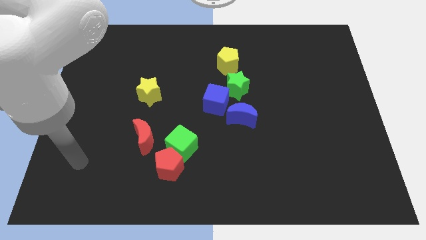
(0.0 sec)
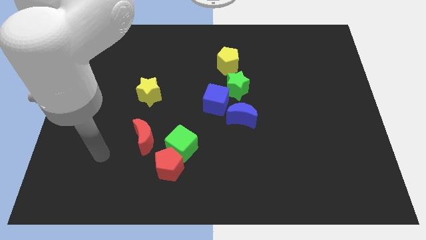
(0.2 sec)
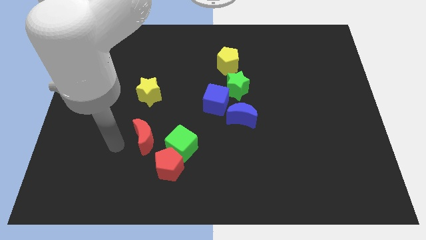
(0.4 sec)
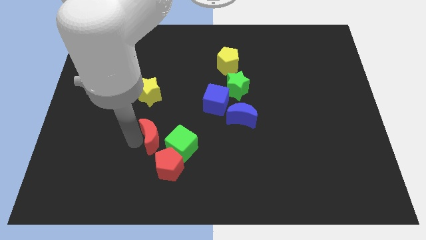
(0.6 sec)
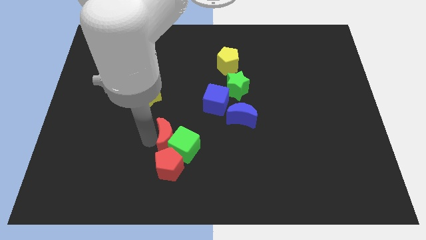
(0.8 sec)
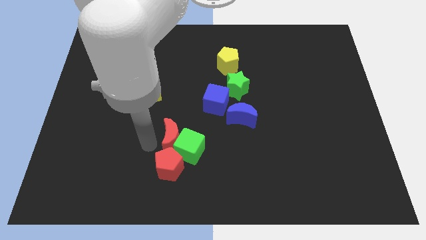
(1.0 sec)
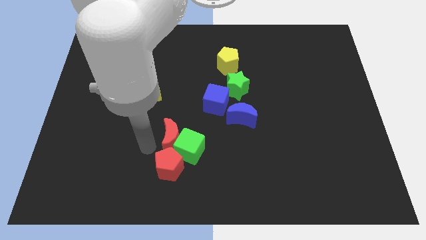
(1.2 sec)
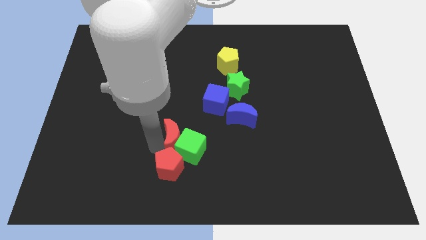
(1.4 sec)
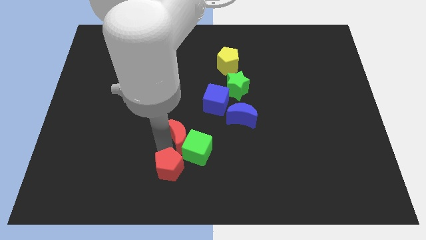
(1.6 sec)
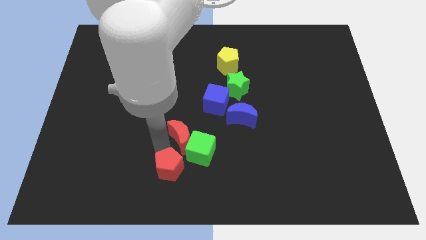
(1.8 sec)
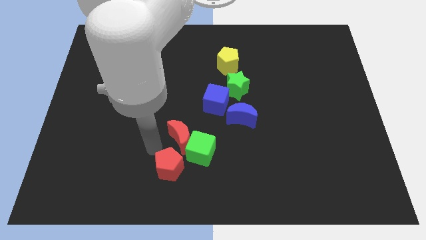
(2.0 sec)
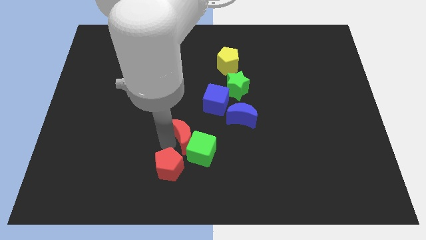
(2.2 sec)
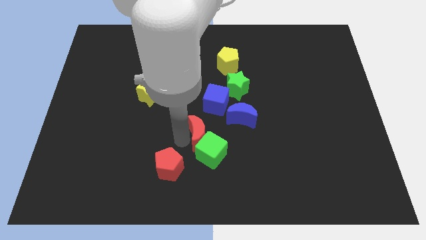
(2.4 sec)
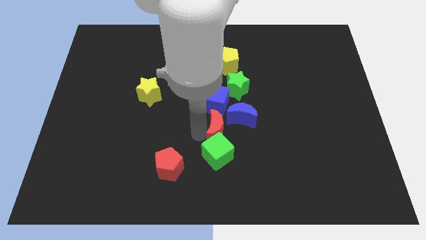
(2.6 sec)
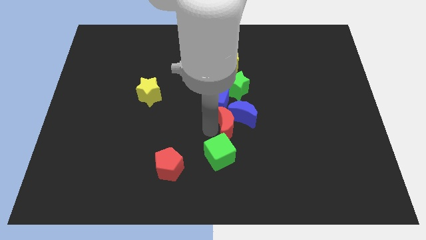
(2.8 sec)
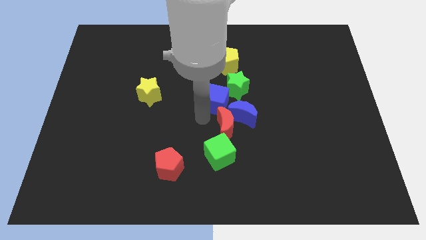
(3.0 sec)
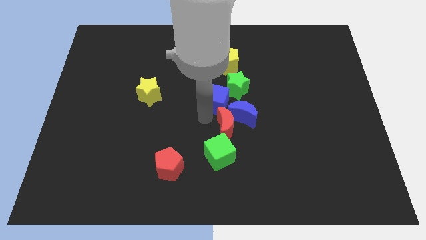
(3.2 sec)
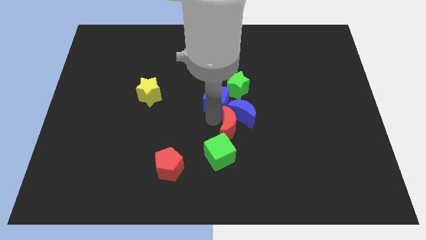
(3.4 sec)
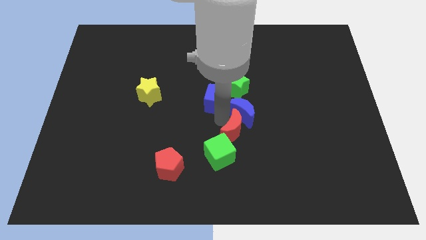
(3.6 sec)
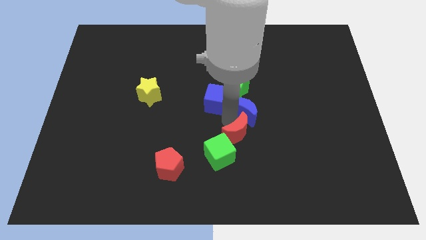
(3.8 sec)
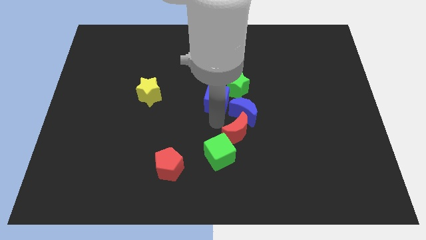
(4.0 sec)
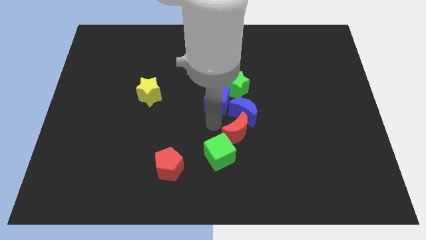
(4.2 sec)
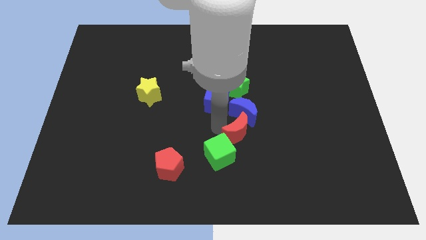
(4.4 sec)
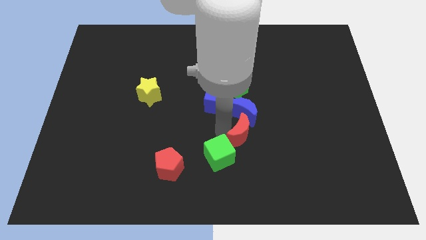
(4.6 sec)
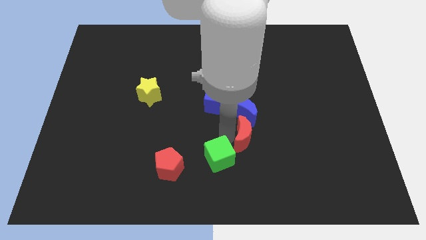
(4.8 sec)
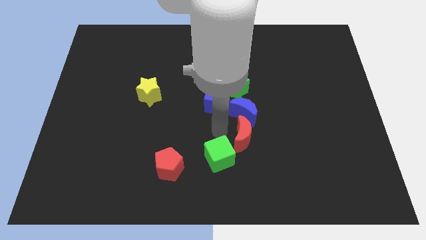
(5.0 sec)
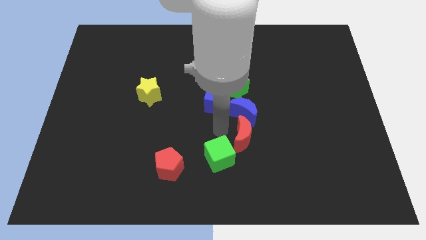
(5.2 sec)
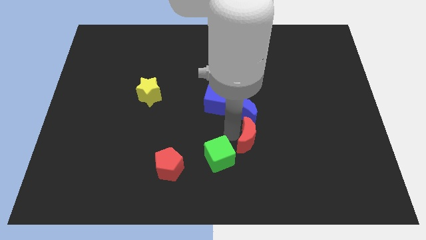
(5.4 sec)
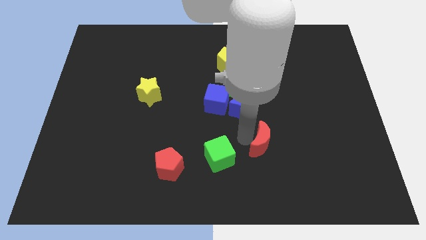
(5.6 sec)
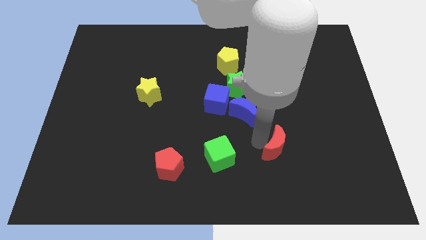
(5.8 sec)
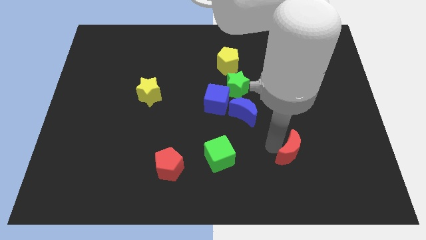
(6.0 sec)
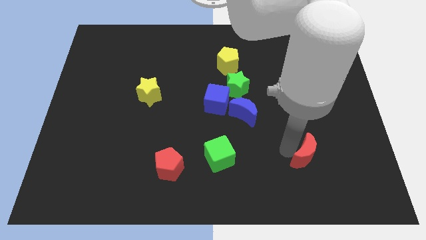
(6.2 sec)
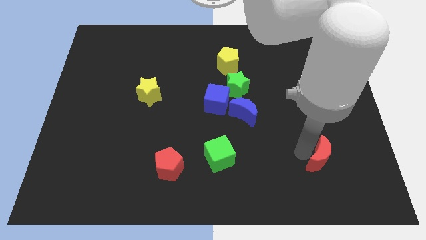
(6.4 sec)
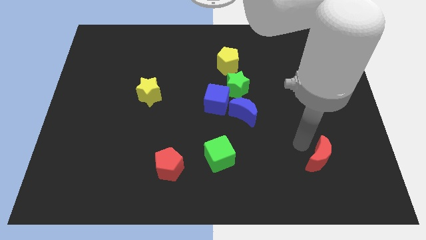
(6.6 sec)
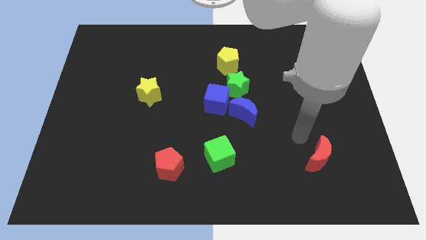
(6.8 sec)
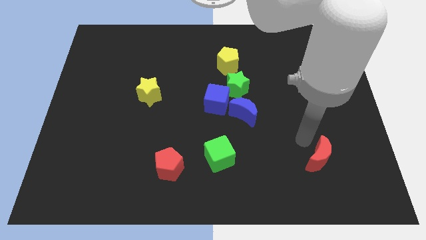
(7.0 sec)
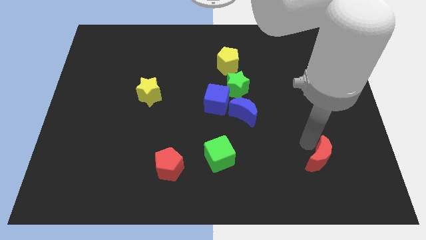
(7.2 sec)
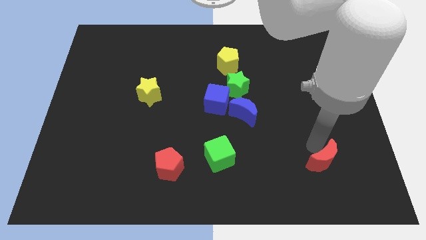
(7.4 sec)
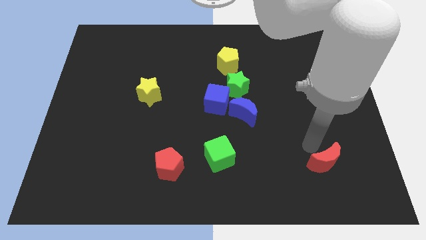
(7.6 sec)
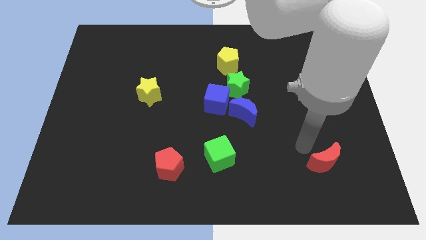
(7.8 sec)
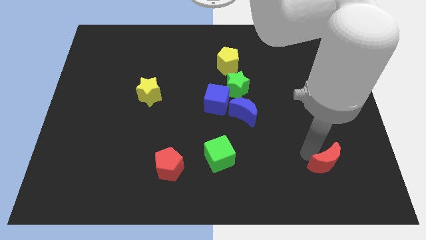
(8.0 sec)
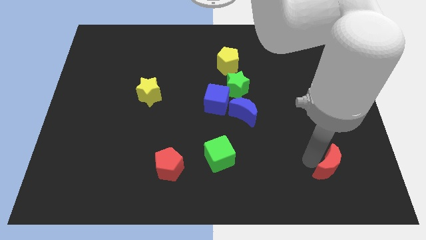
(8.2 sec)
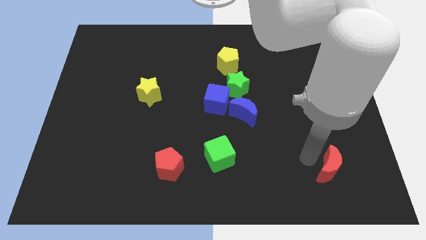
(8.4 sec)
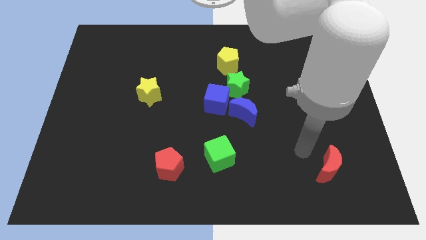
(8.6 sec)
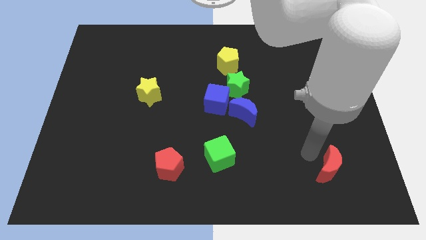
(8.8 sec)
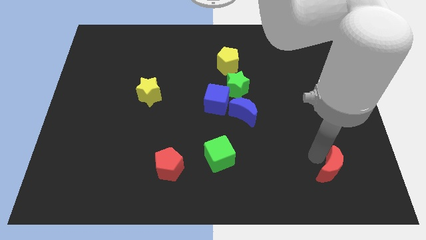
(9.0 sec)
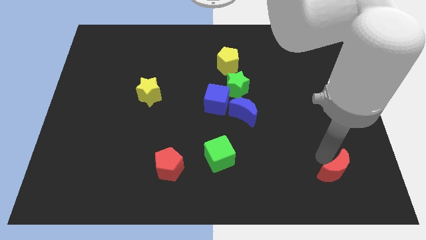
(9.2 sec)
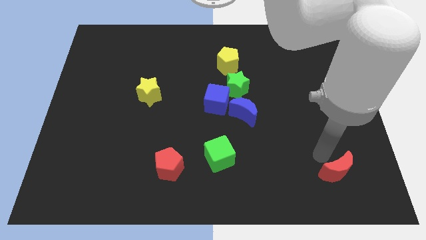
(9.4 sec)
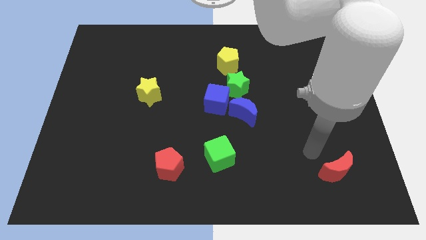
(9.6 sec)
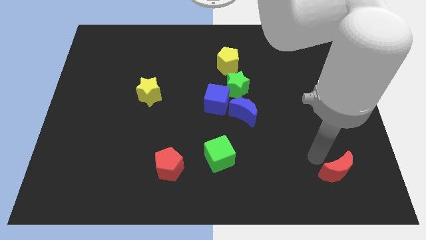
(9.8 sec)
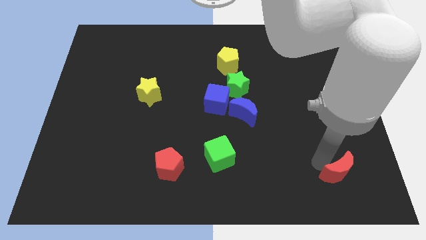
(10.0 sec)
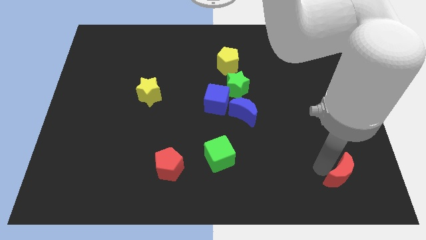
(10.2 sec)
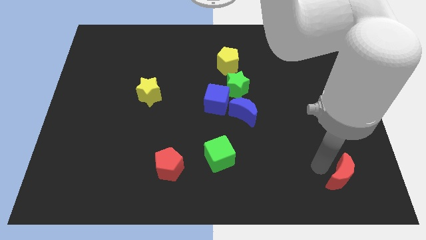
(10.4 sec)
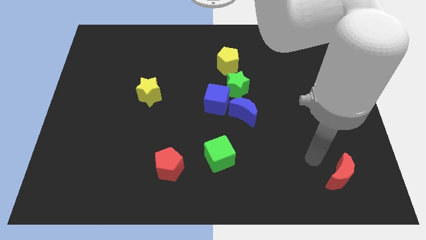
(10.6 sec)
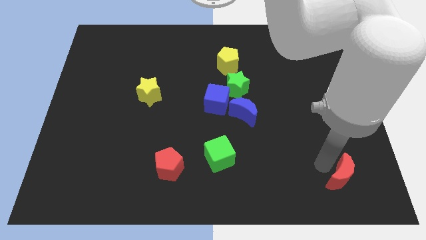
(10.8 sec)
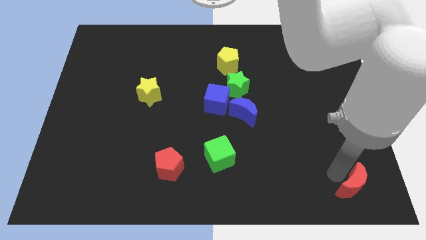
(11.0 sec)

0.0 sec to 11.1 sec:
slide the red moon to the lower right corner

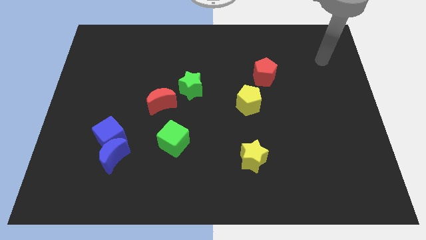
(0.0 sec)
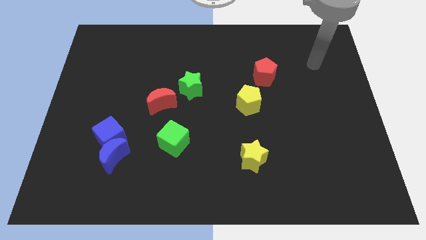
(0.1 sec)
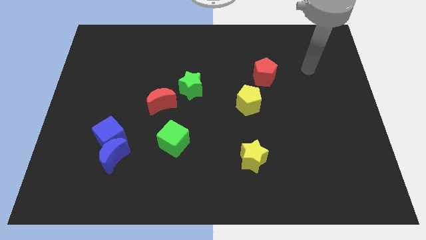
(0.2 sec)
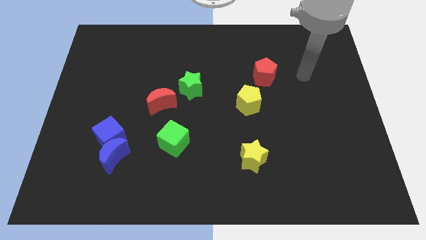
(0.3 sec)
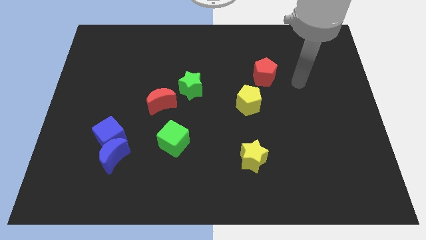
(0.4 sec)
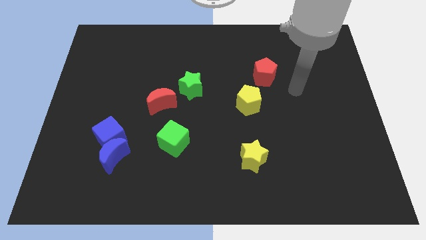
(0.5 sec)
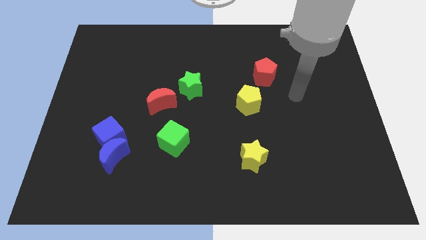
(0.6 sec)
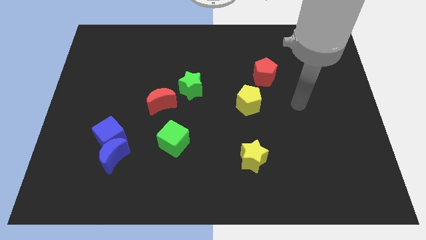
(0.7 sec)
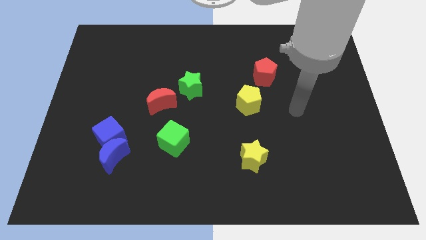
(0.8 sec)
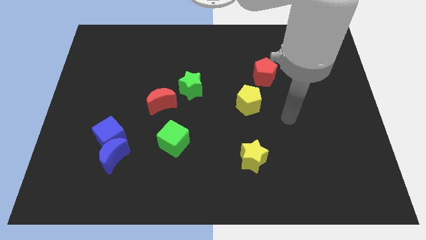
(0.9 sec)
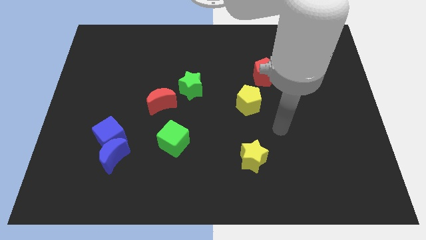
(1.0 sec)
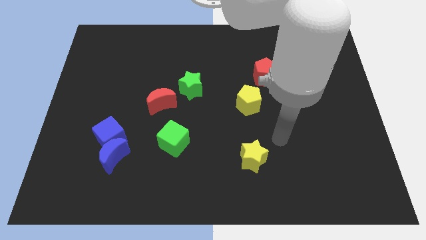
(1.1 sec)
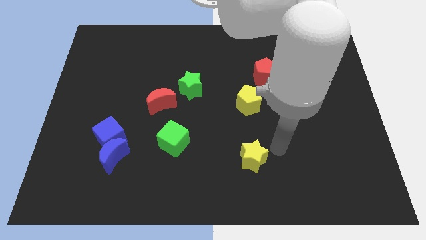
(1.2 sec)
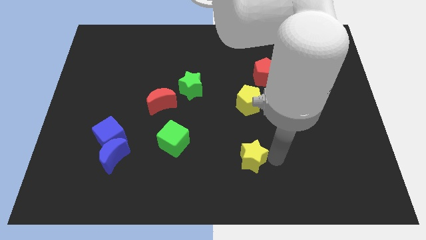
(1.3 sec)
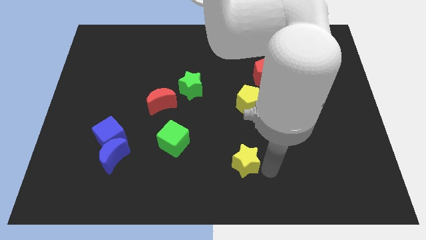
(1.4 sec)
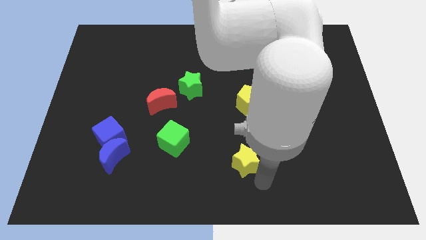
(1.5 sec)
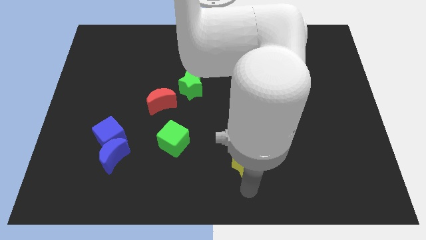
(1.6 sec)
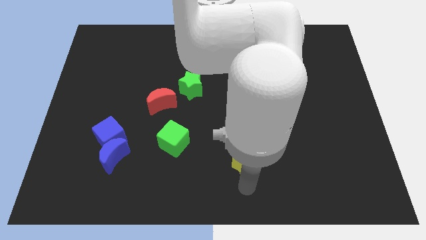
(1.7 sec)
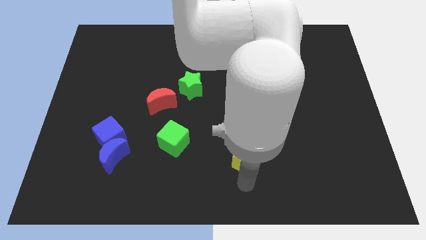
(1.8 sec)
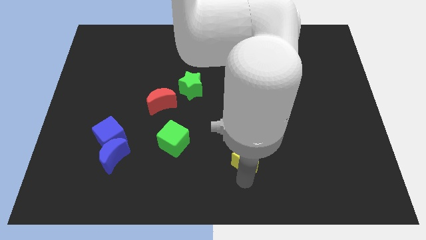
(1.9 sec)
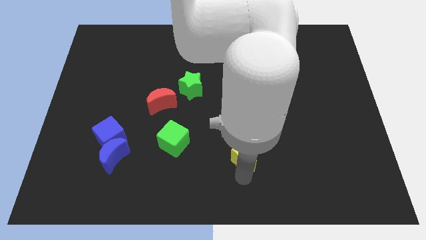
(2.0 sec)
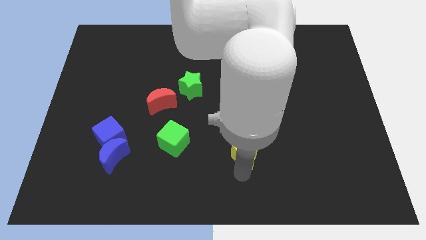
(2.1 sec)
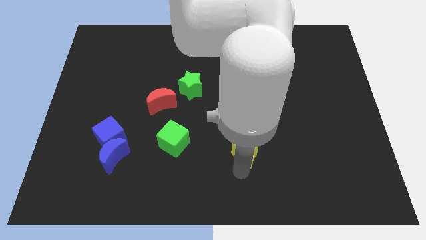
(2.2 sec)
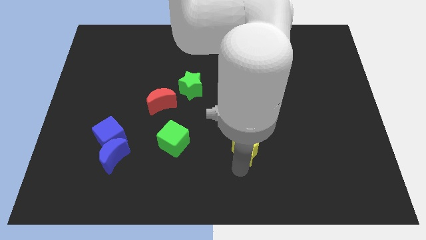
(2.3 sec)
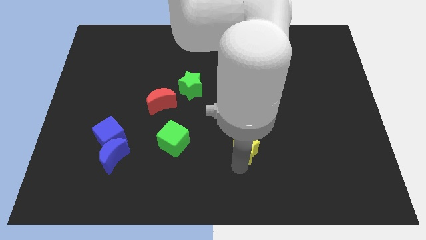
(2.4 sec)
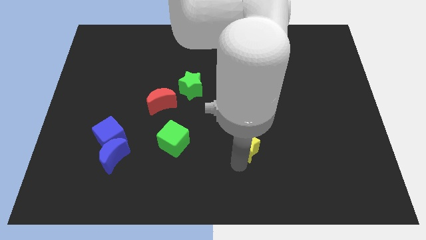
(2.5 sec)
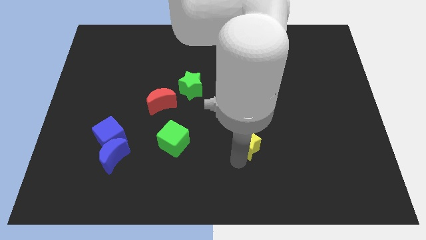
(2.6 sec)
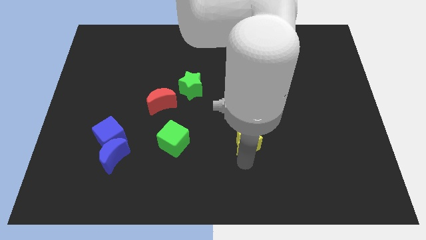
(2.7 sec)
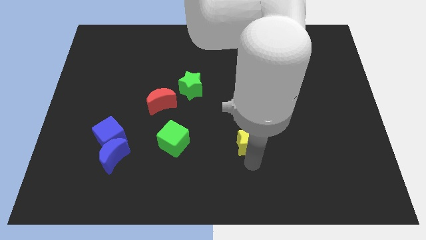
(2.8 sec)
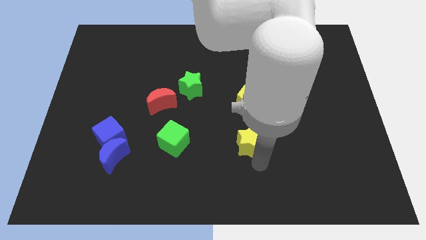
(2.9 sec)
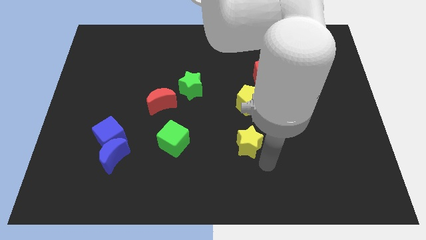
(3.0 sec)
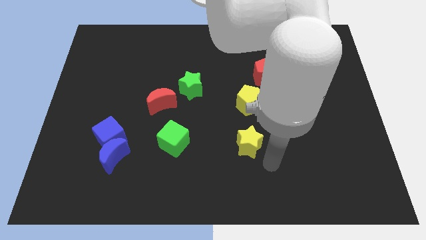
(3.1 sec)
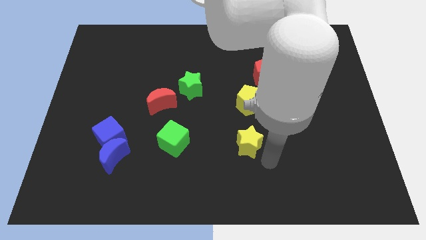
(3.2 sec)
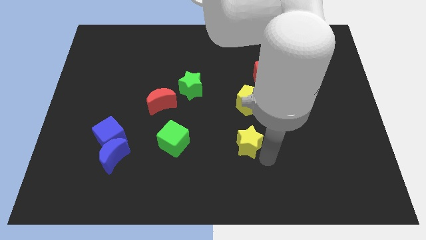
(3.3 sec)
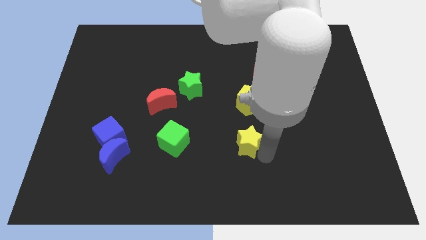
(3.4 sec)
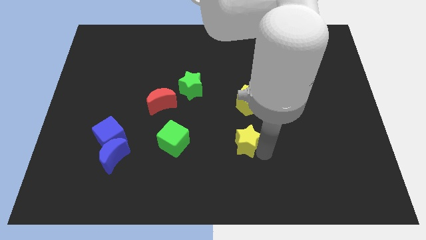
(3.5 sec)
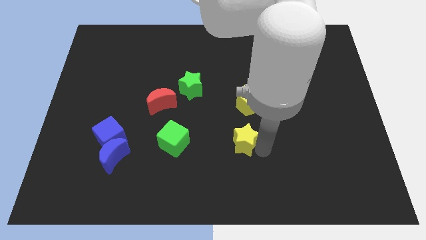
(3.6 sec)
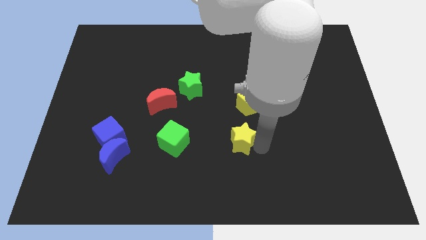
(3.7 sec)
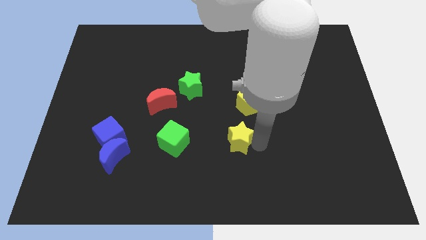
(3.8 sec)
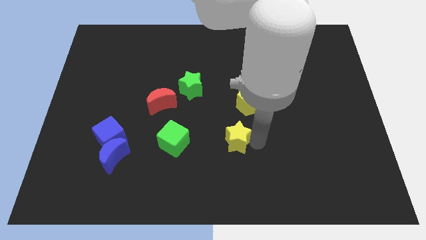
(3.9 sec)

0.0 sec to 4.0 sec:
put the yellow star to the center of the board
